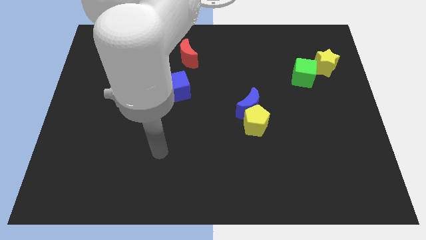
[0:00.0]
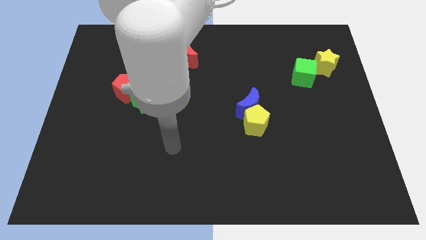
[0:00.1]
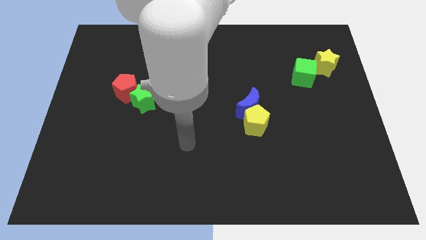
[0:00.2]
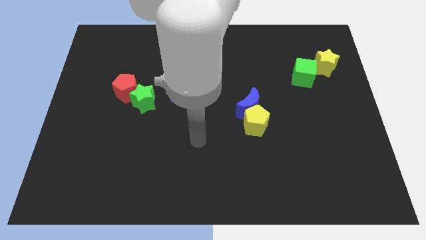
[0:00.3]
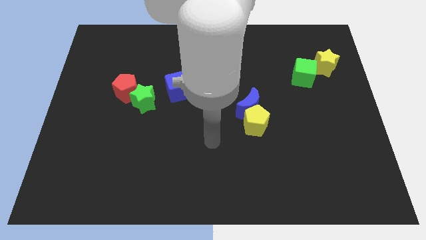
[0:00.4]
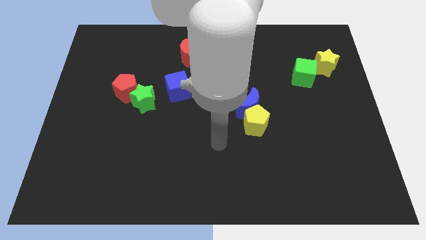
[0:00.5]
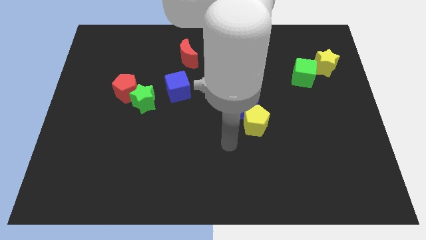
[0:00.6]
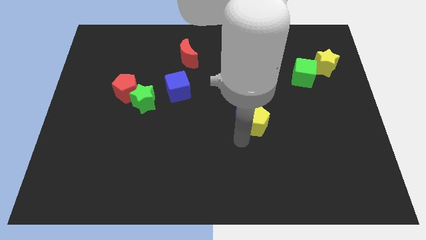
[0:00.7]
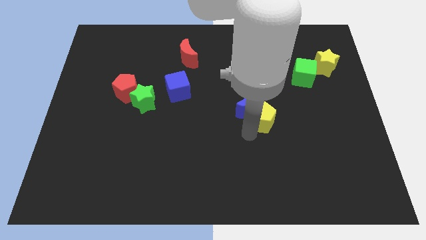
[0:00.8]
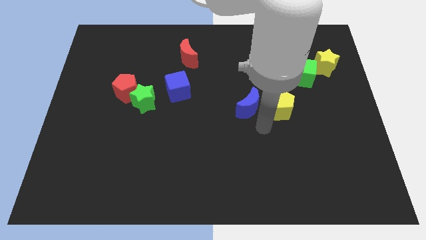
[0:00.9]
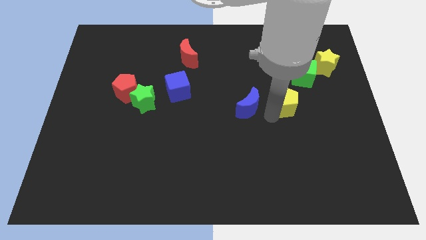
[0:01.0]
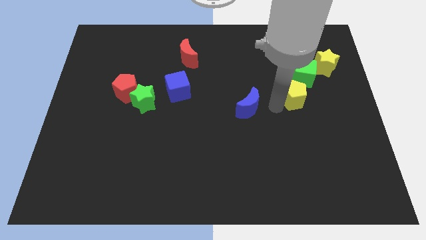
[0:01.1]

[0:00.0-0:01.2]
separate the blue moon from the yellow pentagon

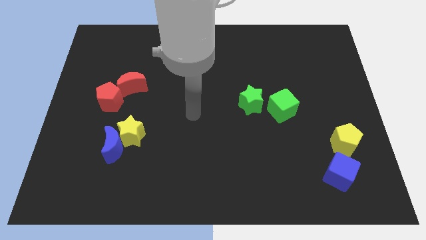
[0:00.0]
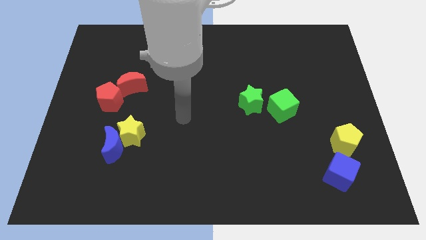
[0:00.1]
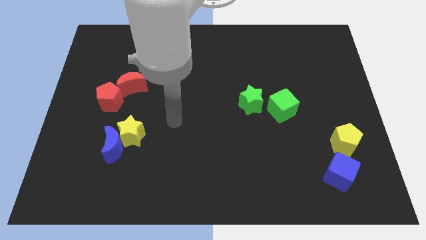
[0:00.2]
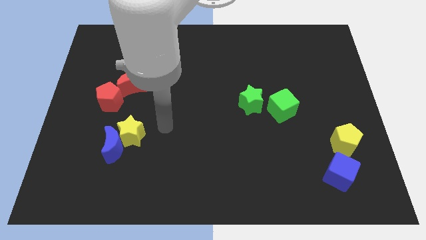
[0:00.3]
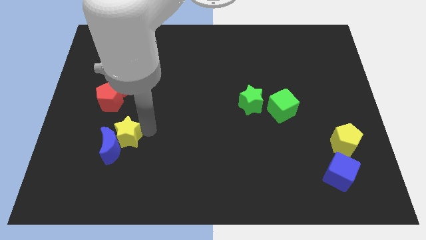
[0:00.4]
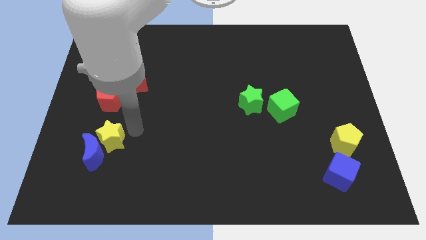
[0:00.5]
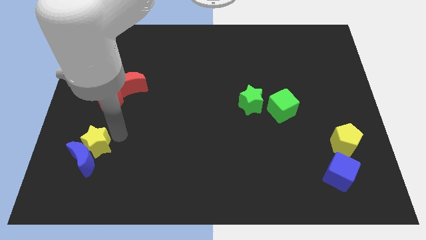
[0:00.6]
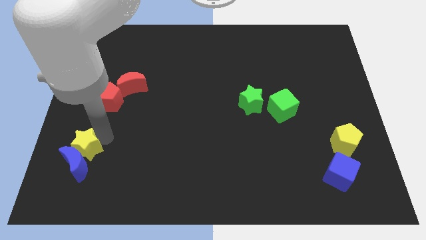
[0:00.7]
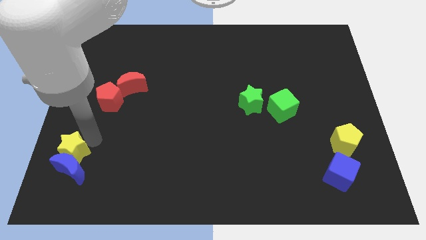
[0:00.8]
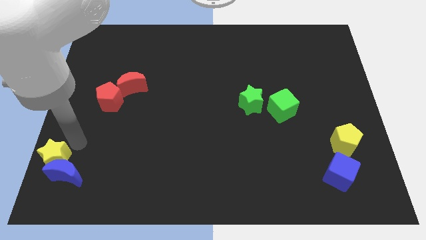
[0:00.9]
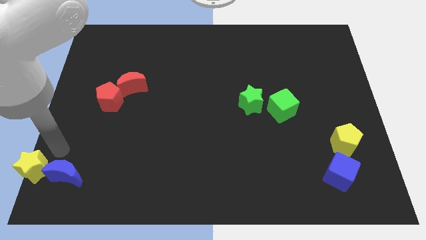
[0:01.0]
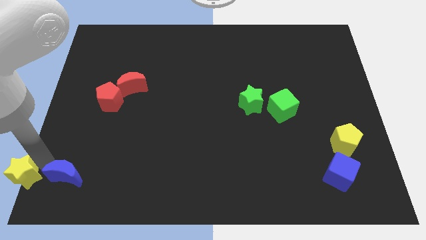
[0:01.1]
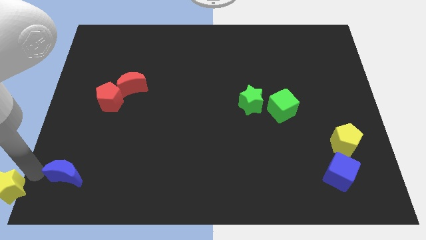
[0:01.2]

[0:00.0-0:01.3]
separate the blue moon from the yellow star

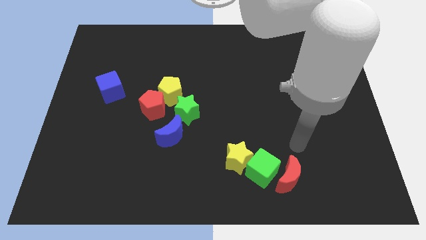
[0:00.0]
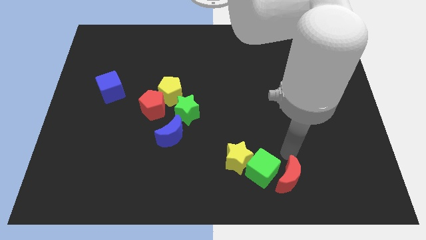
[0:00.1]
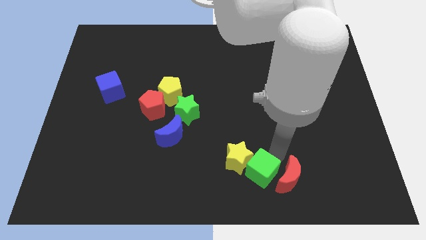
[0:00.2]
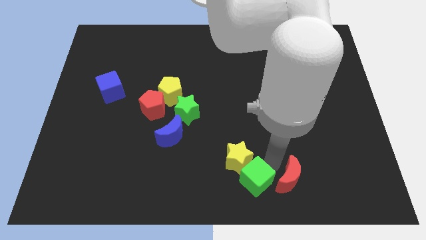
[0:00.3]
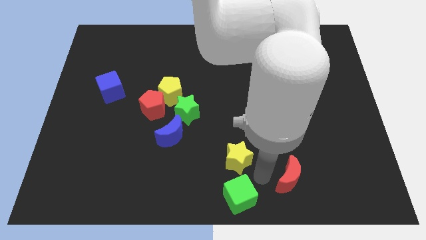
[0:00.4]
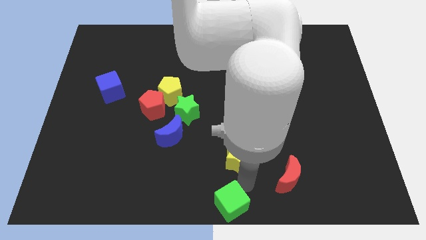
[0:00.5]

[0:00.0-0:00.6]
separate the yellow star from the green cube

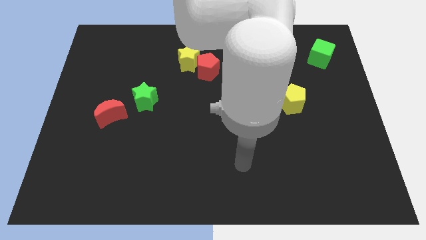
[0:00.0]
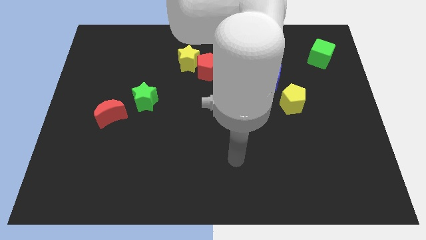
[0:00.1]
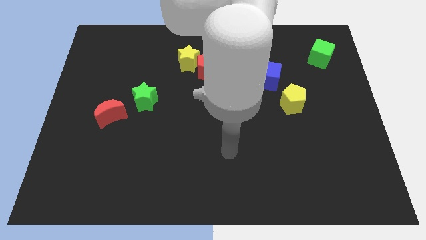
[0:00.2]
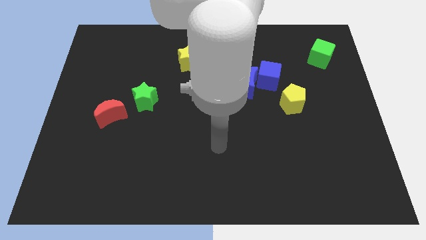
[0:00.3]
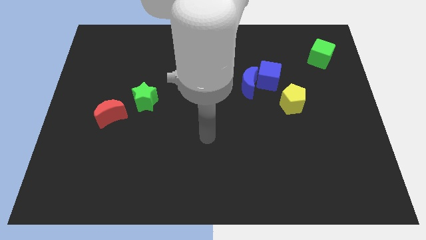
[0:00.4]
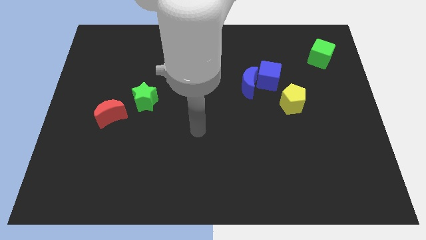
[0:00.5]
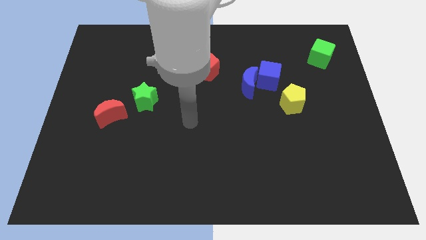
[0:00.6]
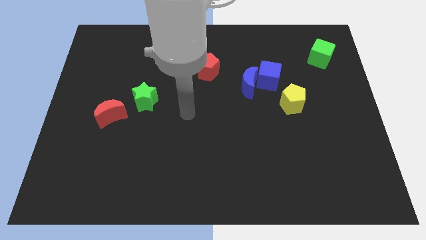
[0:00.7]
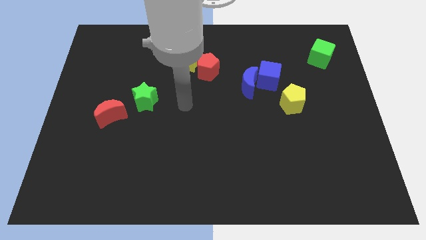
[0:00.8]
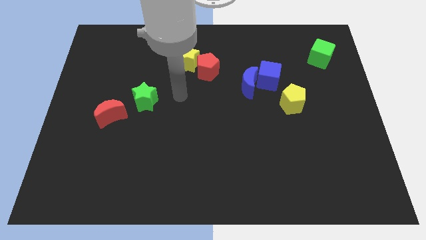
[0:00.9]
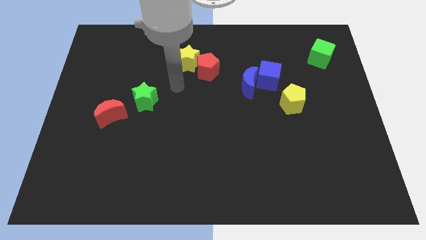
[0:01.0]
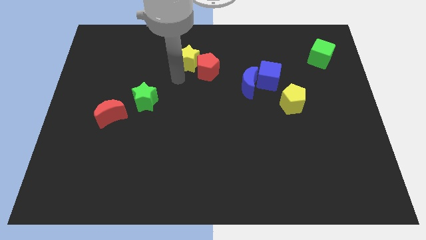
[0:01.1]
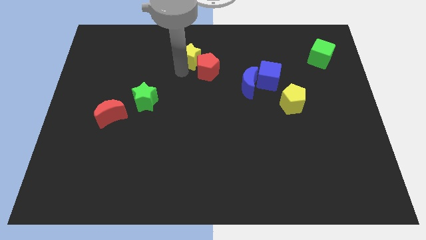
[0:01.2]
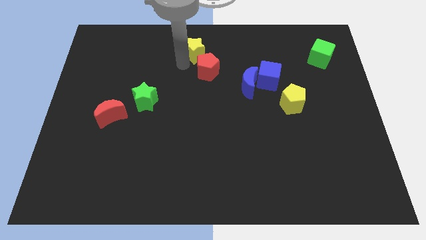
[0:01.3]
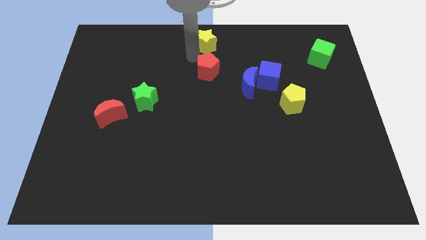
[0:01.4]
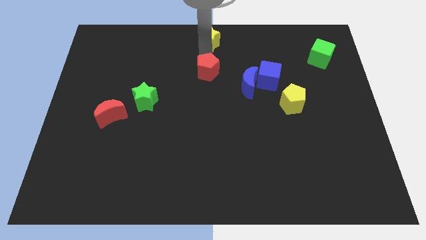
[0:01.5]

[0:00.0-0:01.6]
pull the red pentagon apart from the yellow star

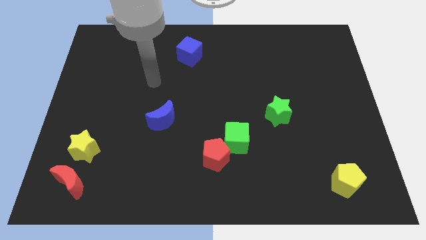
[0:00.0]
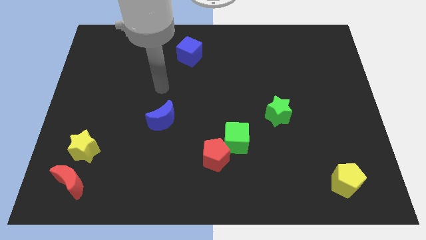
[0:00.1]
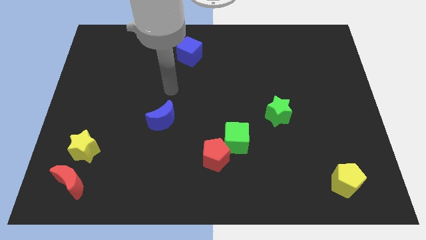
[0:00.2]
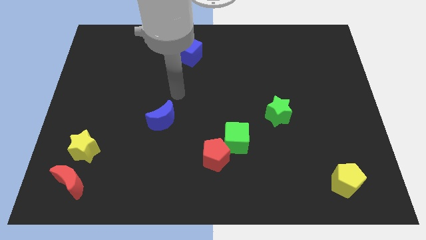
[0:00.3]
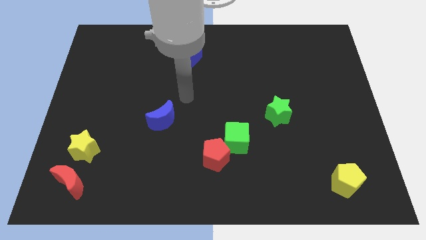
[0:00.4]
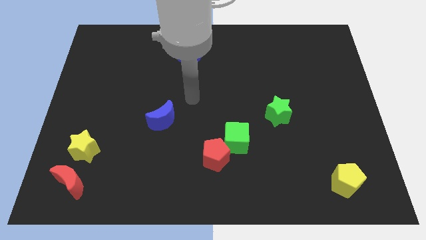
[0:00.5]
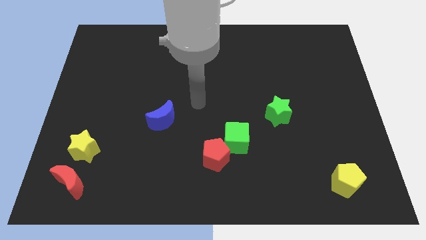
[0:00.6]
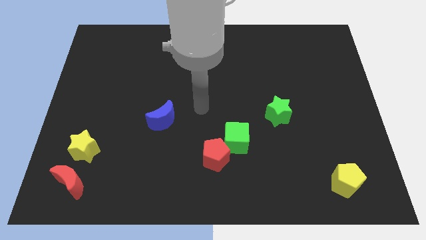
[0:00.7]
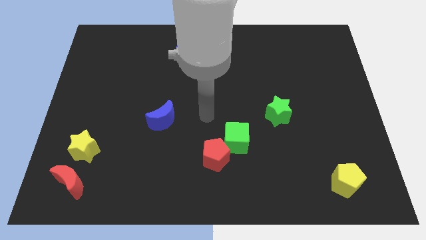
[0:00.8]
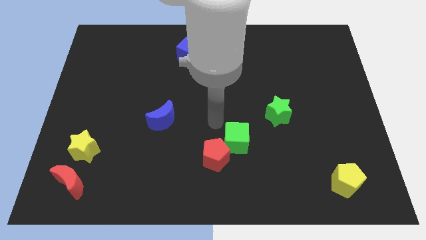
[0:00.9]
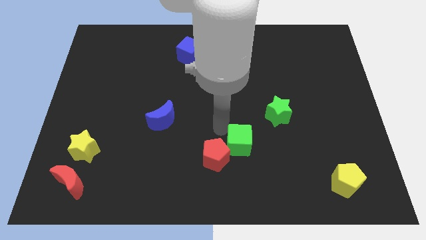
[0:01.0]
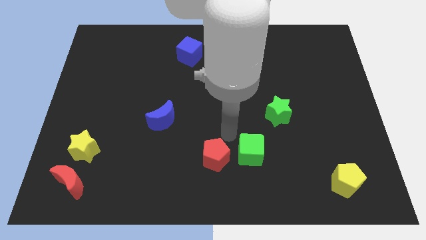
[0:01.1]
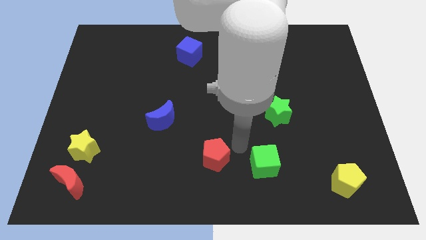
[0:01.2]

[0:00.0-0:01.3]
separate the red pentagon from the green cube

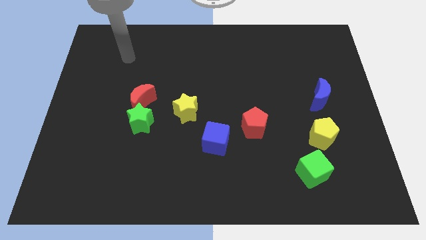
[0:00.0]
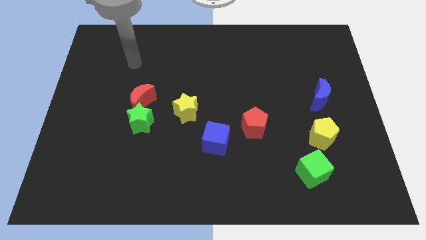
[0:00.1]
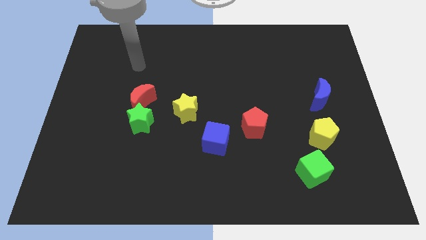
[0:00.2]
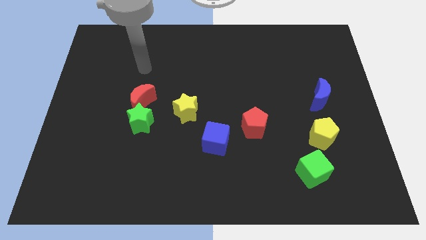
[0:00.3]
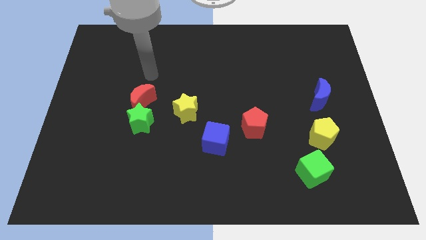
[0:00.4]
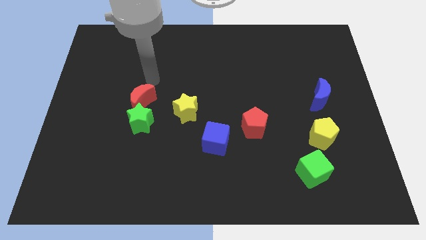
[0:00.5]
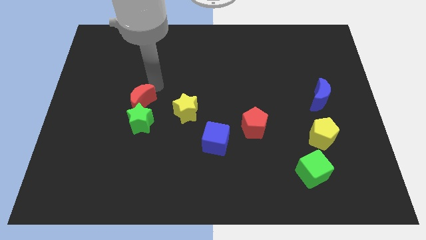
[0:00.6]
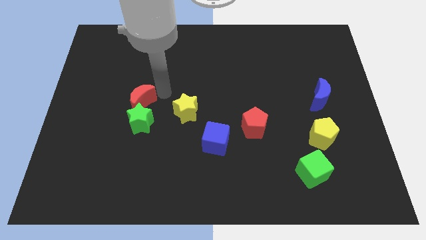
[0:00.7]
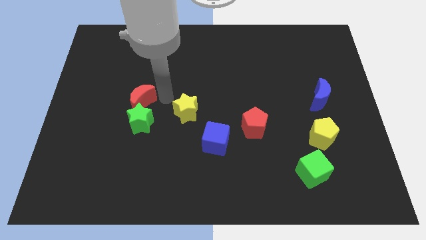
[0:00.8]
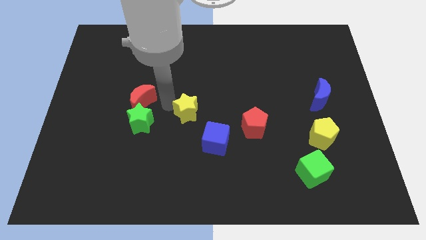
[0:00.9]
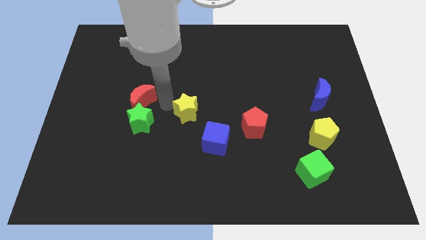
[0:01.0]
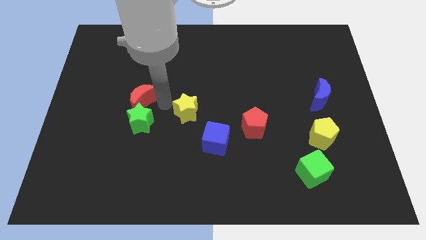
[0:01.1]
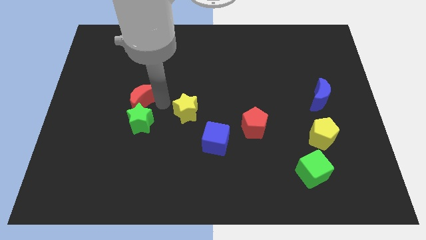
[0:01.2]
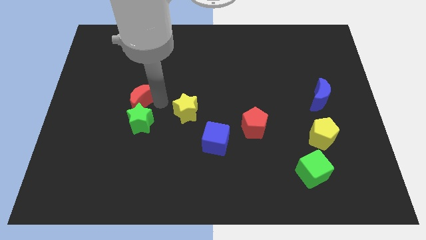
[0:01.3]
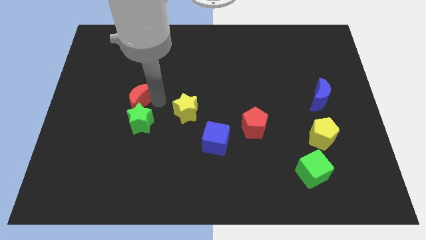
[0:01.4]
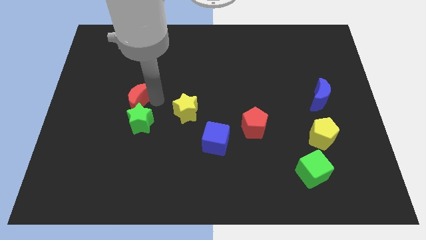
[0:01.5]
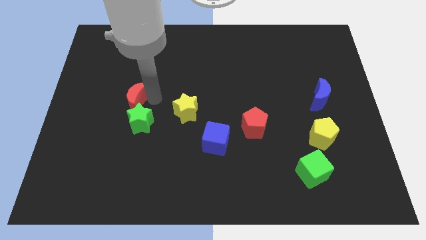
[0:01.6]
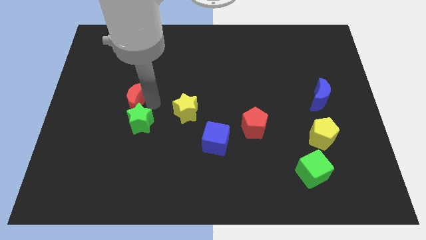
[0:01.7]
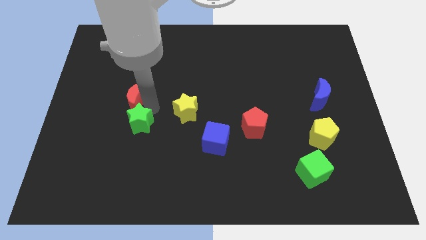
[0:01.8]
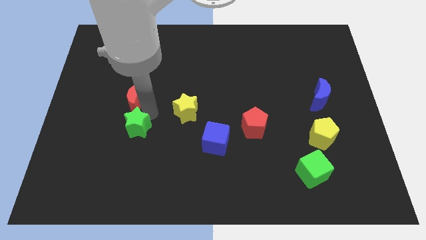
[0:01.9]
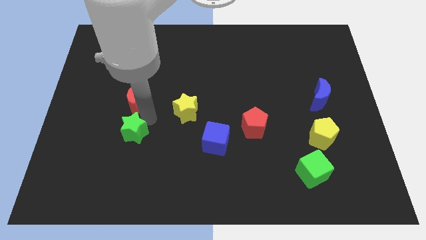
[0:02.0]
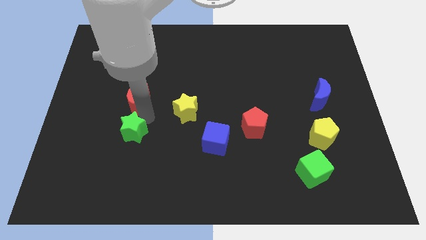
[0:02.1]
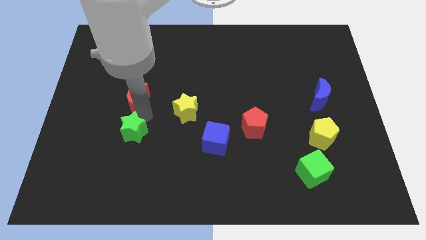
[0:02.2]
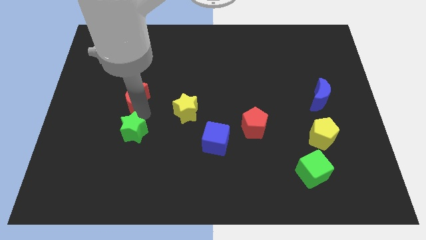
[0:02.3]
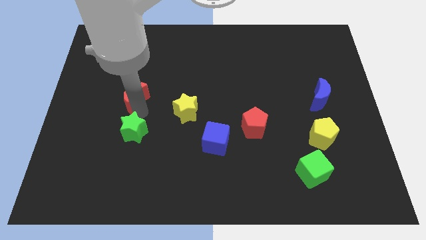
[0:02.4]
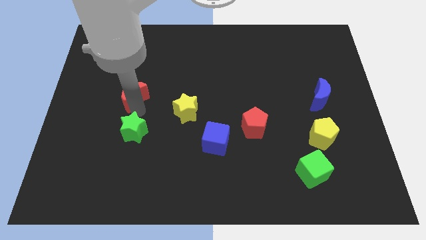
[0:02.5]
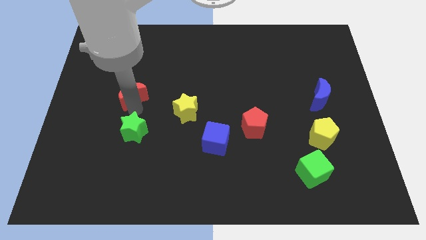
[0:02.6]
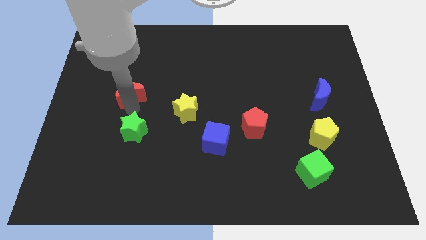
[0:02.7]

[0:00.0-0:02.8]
move the red moon away from the green star

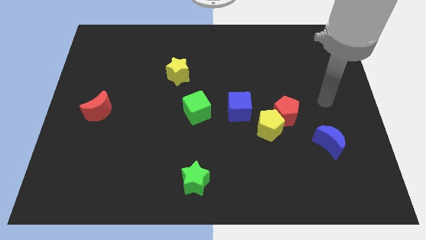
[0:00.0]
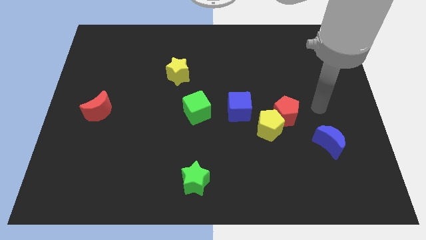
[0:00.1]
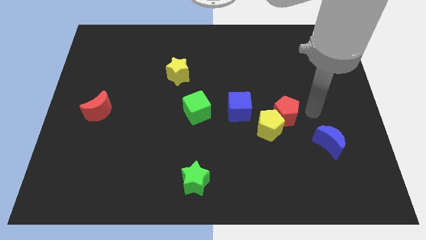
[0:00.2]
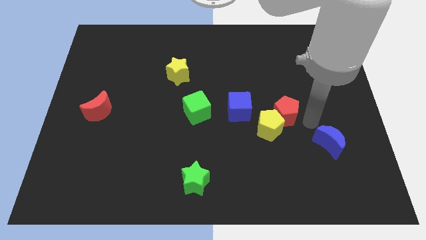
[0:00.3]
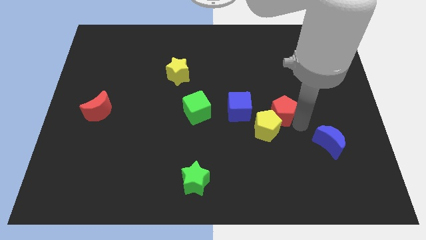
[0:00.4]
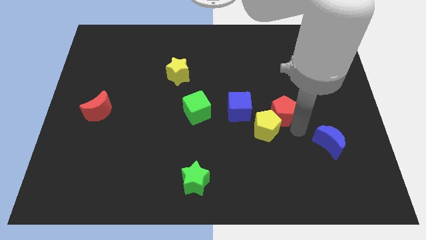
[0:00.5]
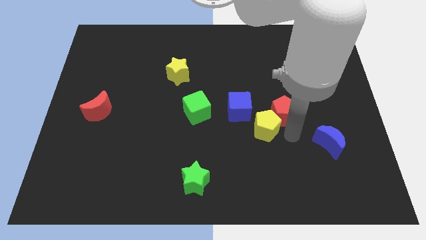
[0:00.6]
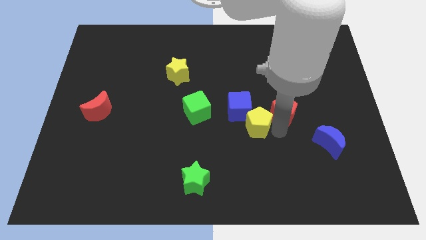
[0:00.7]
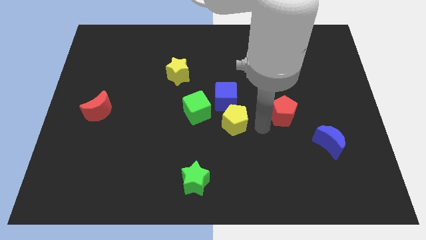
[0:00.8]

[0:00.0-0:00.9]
pull the red pentagon apart from the yellow pentagon
